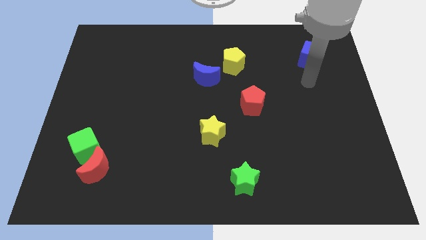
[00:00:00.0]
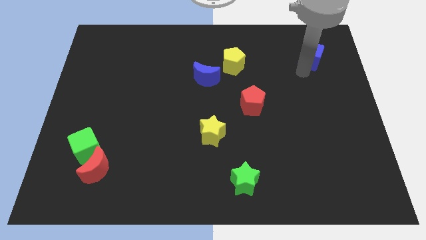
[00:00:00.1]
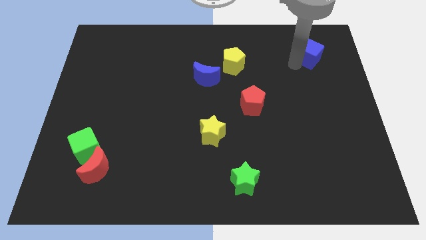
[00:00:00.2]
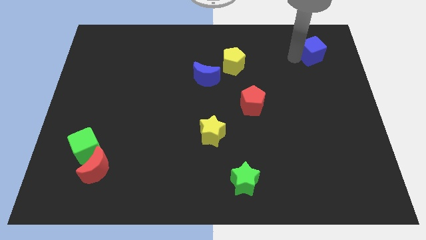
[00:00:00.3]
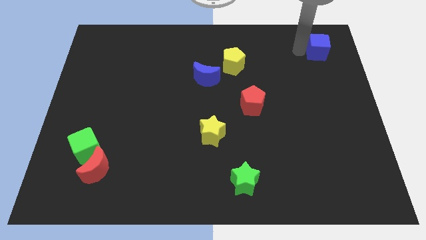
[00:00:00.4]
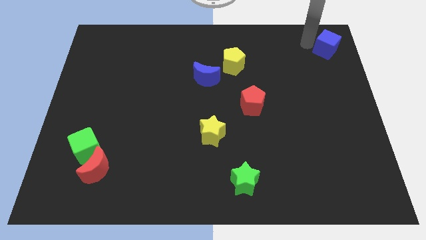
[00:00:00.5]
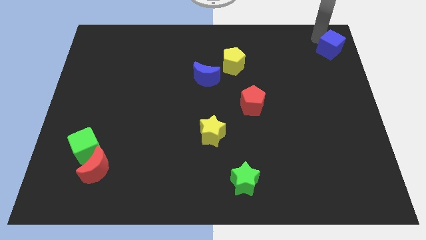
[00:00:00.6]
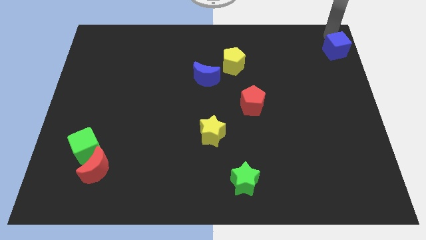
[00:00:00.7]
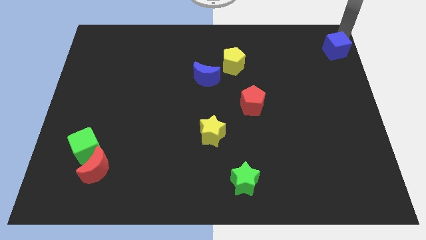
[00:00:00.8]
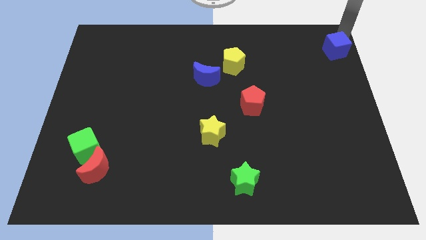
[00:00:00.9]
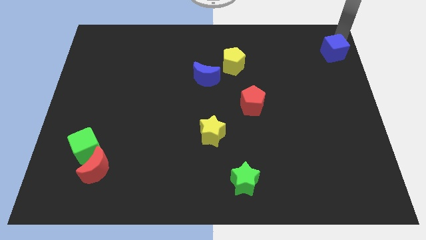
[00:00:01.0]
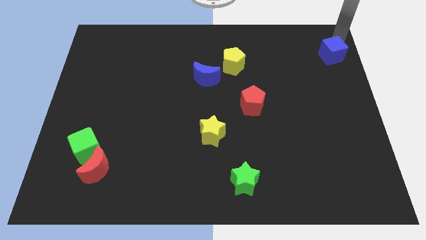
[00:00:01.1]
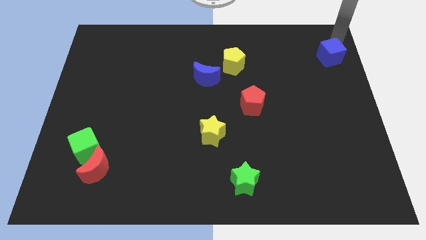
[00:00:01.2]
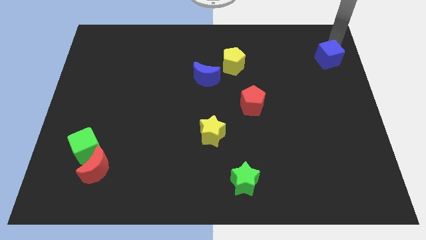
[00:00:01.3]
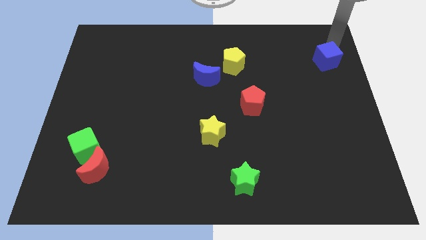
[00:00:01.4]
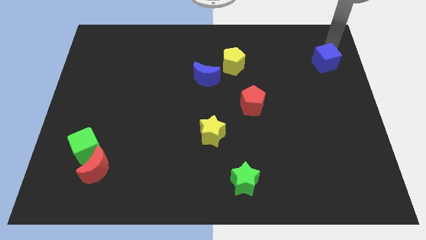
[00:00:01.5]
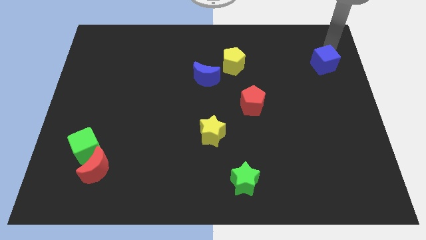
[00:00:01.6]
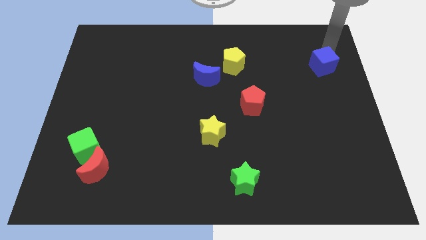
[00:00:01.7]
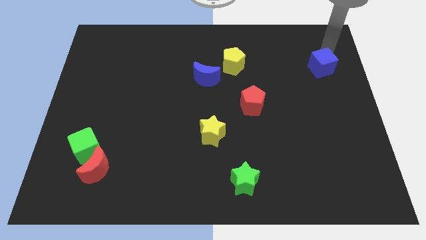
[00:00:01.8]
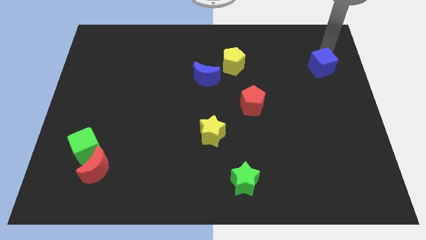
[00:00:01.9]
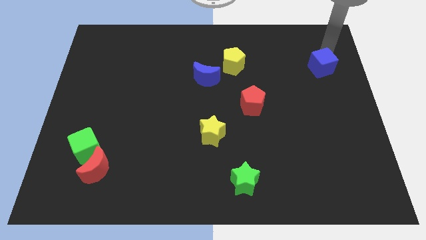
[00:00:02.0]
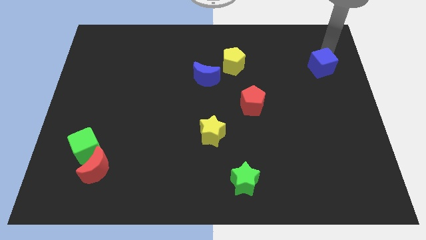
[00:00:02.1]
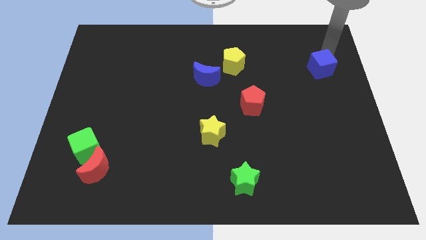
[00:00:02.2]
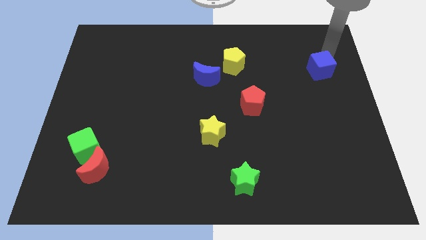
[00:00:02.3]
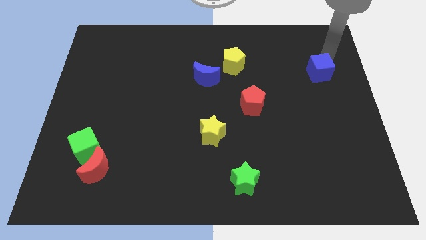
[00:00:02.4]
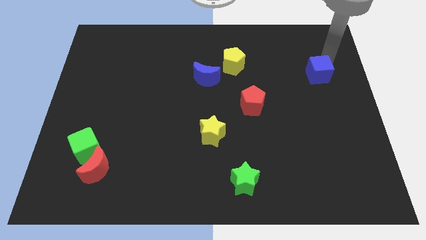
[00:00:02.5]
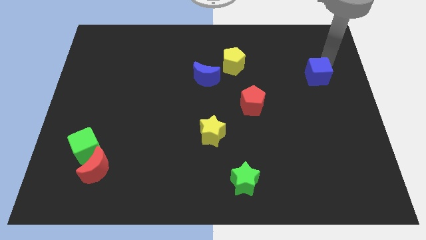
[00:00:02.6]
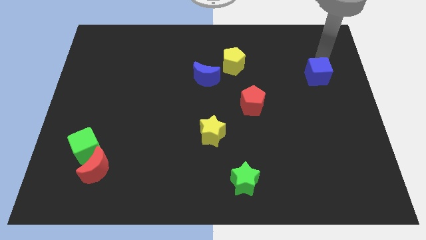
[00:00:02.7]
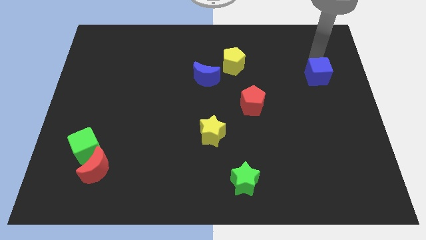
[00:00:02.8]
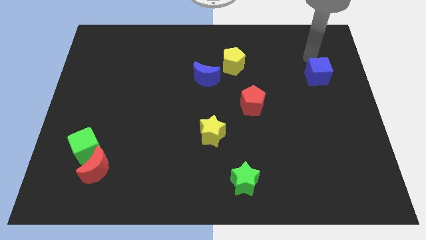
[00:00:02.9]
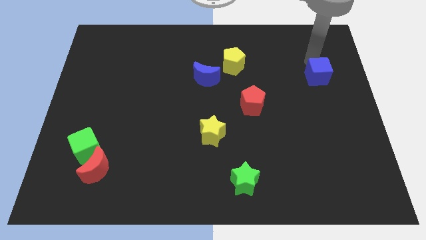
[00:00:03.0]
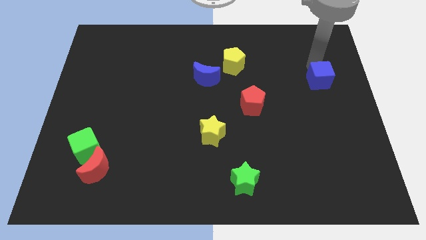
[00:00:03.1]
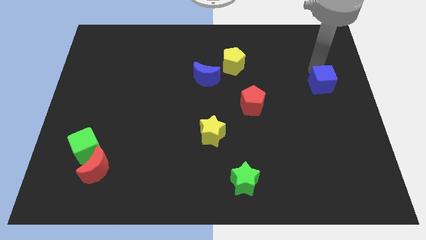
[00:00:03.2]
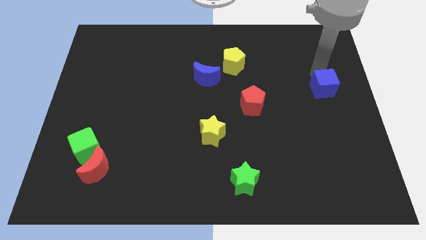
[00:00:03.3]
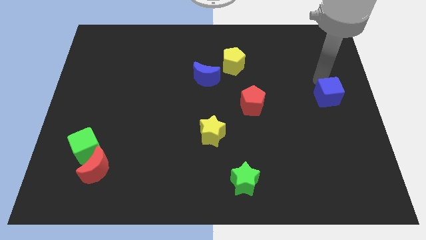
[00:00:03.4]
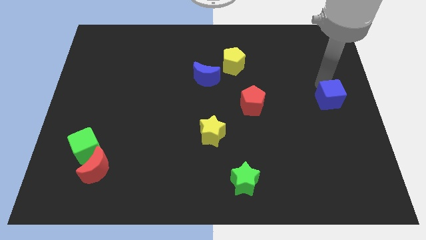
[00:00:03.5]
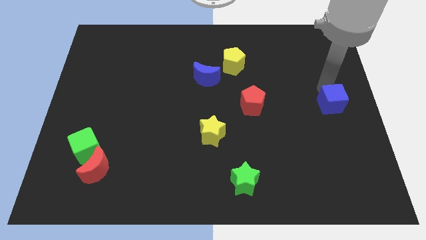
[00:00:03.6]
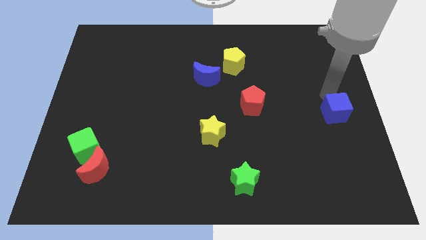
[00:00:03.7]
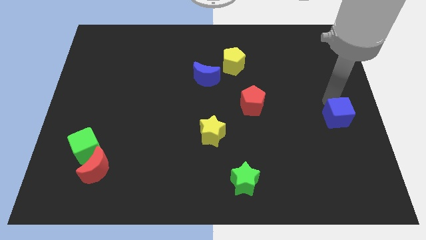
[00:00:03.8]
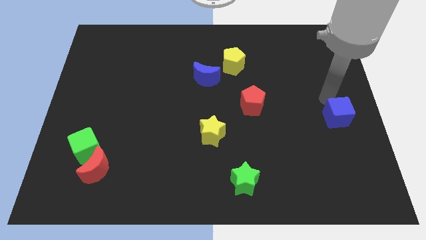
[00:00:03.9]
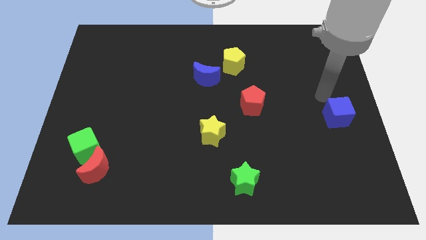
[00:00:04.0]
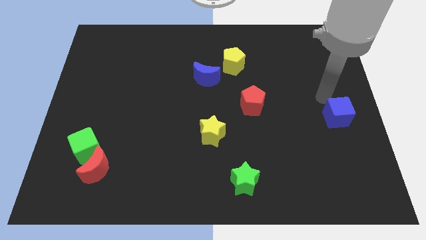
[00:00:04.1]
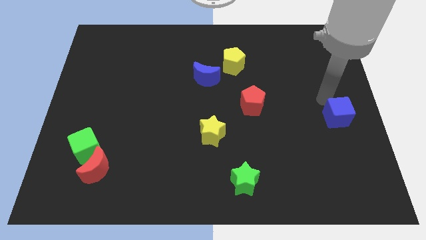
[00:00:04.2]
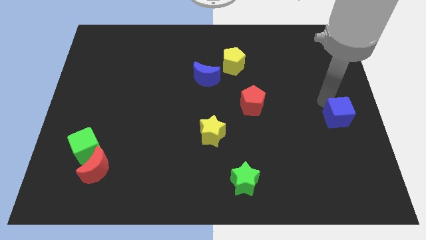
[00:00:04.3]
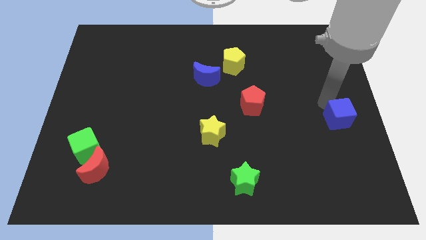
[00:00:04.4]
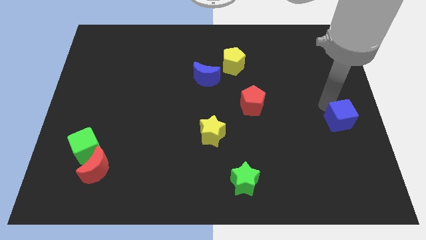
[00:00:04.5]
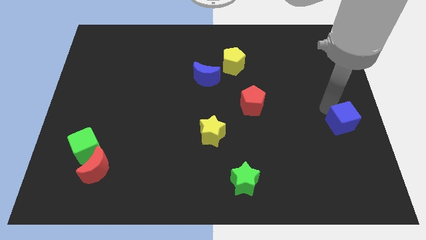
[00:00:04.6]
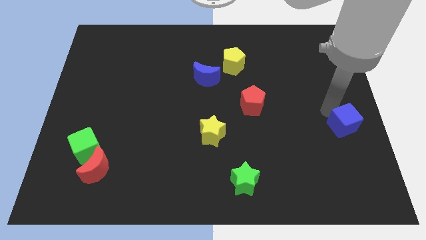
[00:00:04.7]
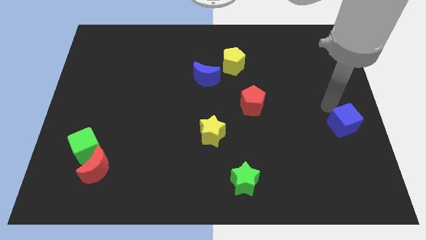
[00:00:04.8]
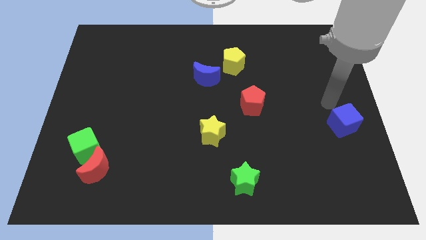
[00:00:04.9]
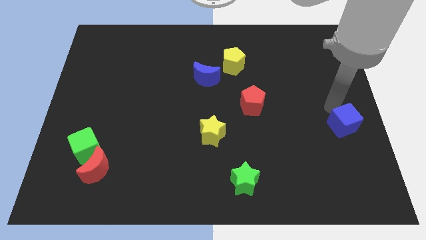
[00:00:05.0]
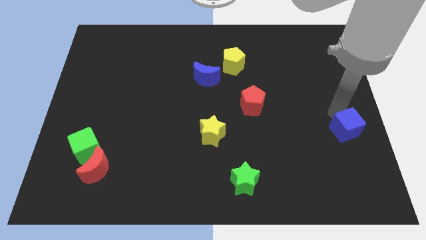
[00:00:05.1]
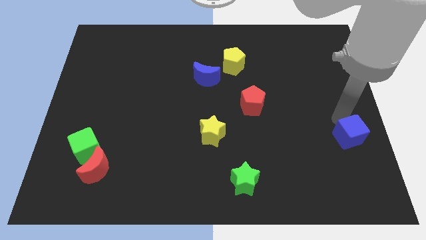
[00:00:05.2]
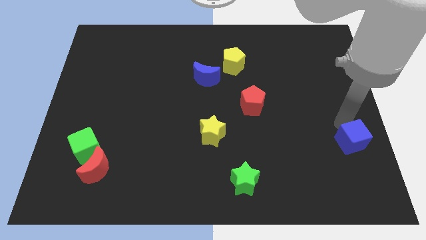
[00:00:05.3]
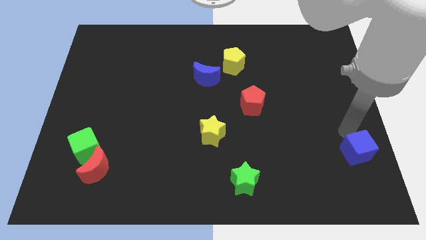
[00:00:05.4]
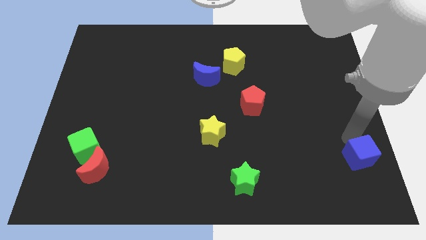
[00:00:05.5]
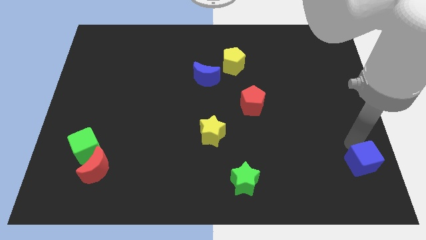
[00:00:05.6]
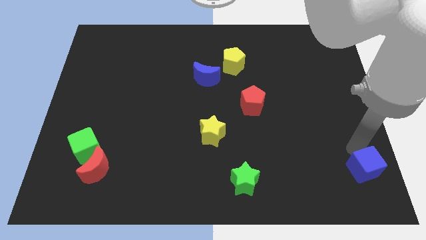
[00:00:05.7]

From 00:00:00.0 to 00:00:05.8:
push the blue cube to the bottom right corner

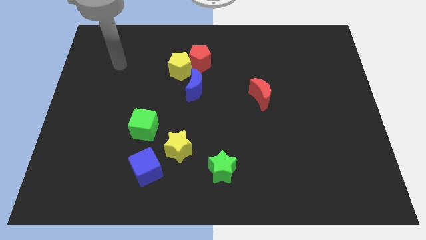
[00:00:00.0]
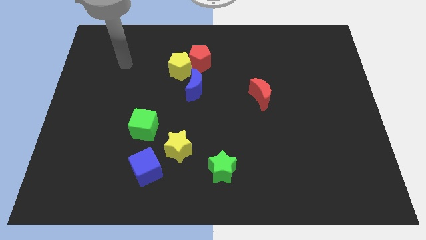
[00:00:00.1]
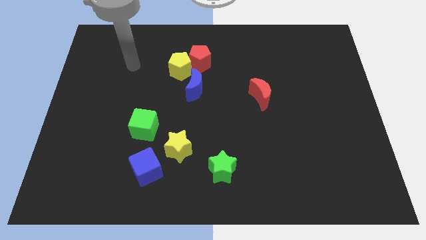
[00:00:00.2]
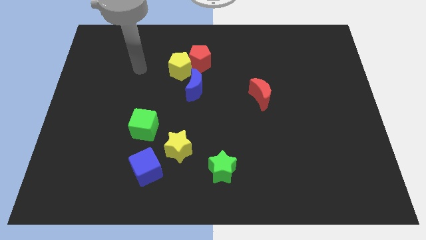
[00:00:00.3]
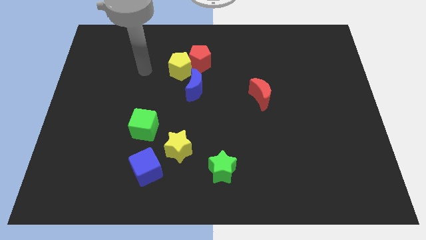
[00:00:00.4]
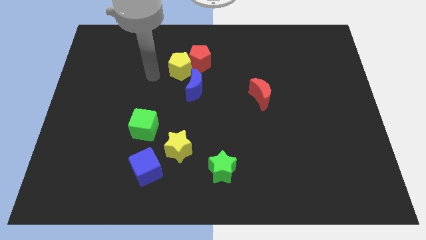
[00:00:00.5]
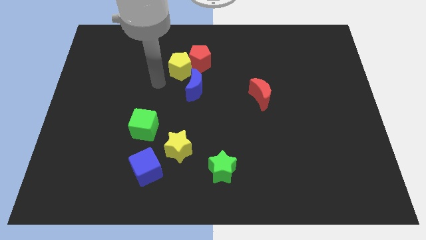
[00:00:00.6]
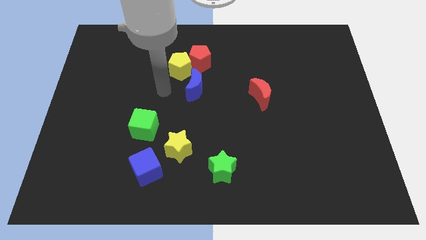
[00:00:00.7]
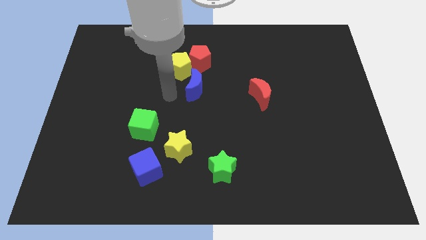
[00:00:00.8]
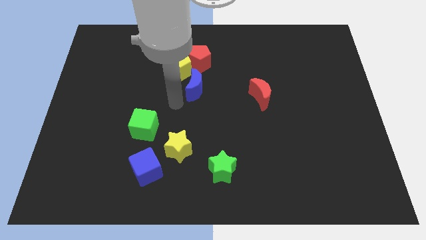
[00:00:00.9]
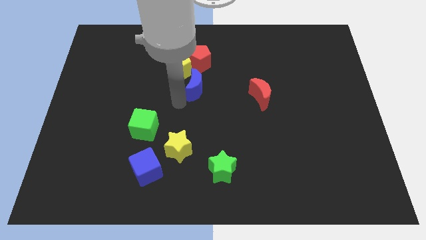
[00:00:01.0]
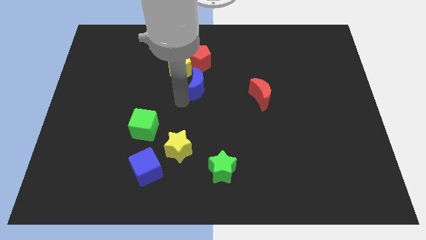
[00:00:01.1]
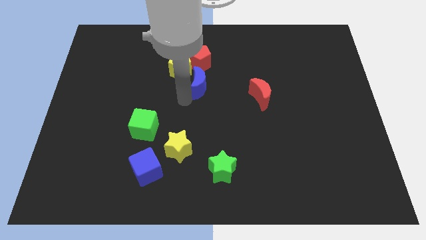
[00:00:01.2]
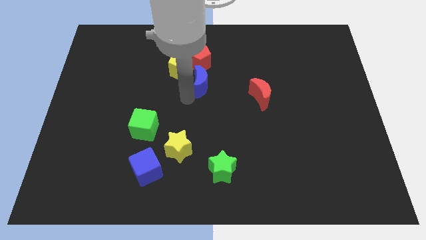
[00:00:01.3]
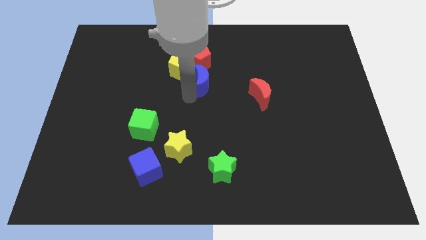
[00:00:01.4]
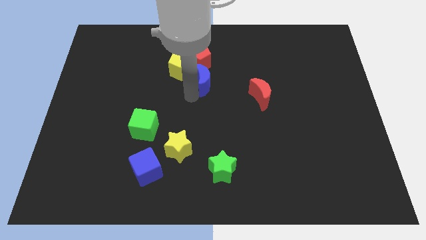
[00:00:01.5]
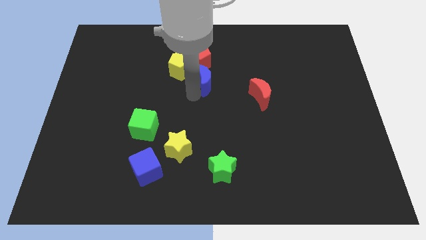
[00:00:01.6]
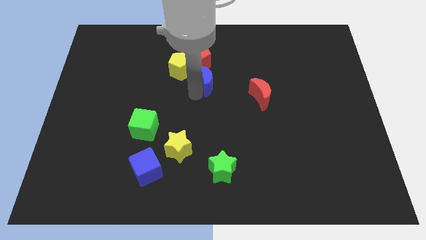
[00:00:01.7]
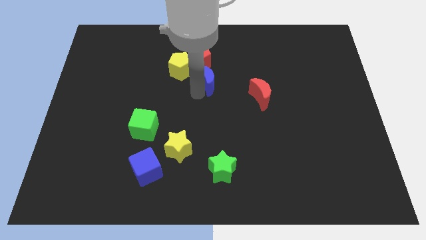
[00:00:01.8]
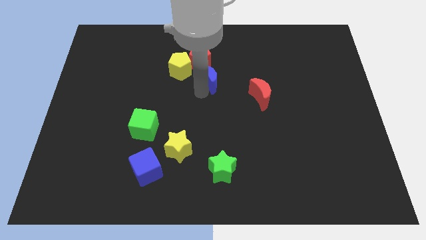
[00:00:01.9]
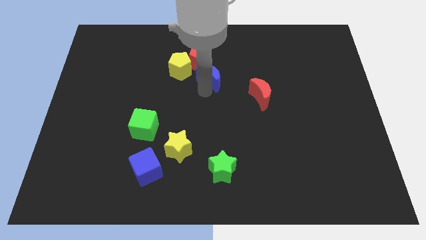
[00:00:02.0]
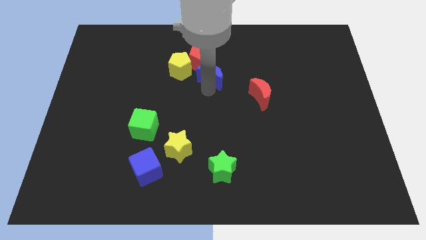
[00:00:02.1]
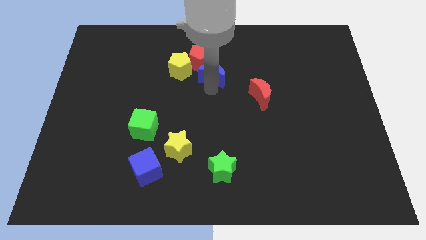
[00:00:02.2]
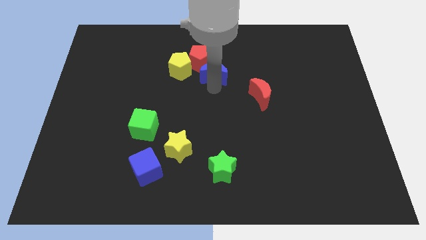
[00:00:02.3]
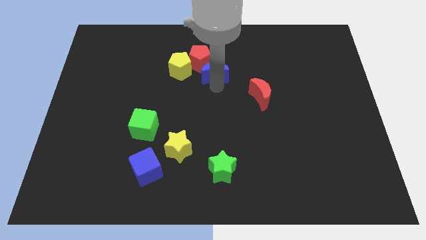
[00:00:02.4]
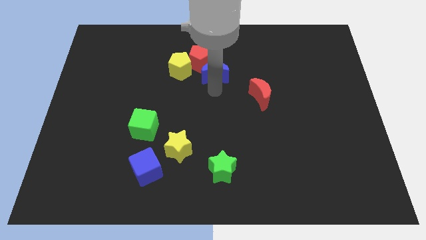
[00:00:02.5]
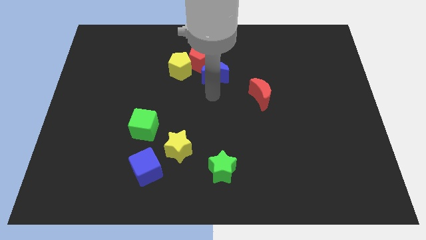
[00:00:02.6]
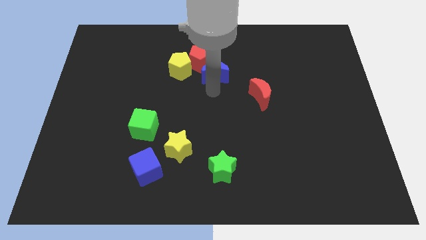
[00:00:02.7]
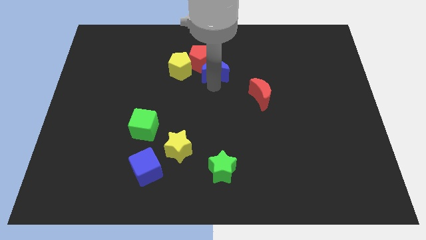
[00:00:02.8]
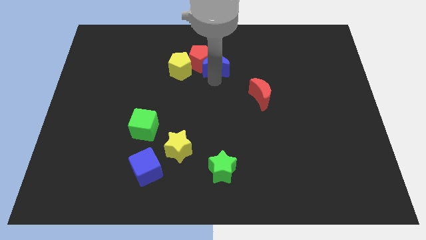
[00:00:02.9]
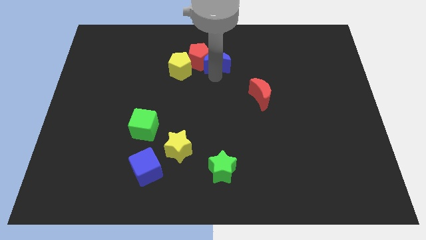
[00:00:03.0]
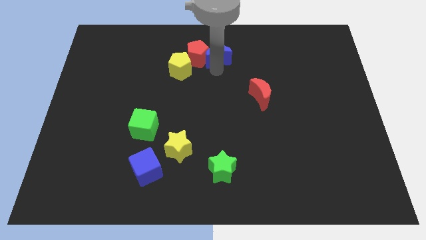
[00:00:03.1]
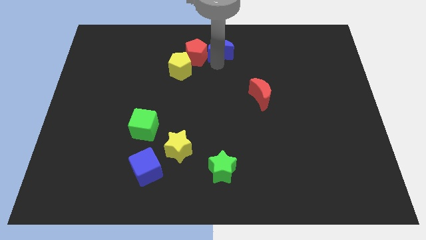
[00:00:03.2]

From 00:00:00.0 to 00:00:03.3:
slide the blue moon to the top side
